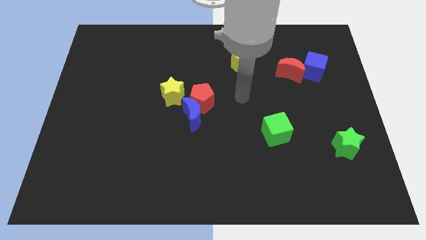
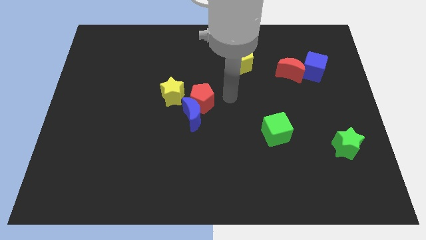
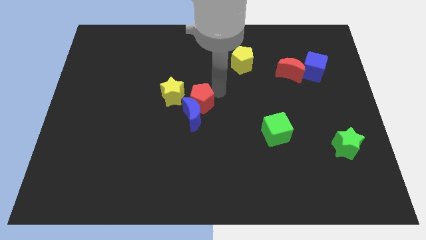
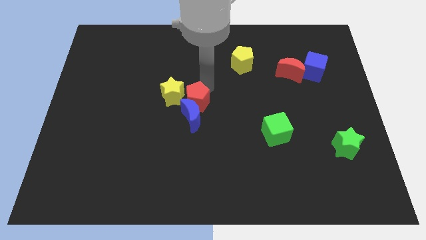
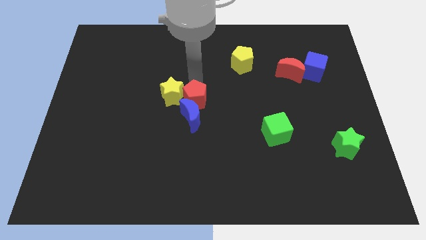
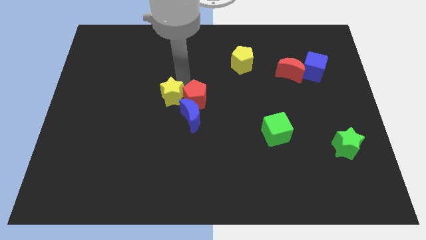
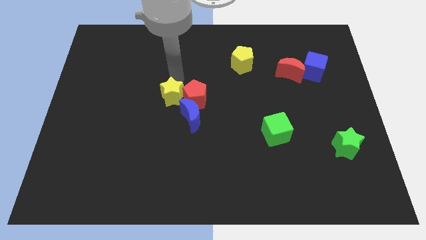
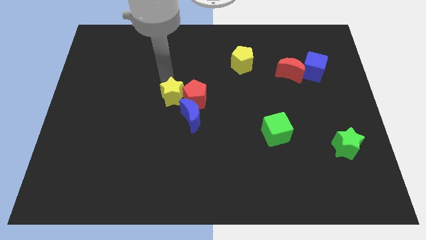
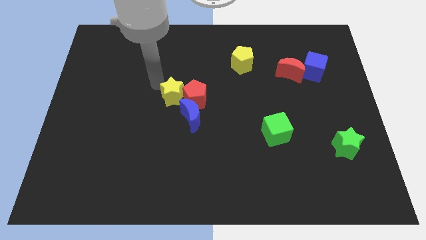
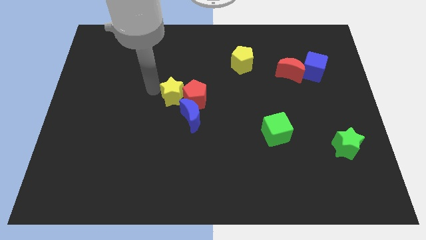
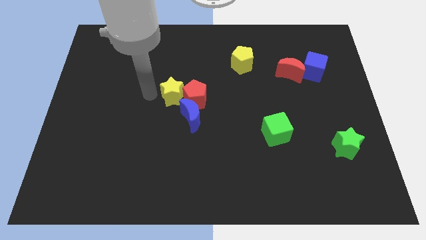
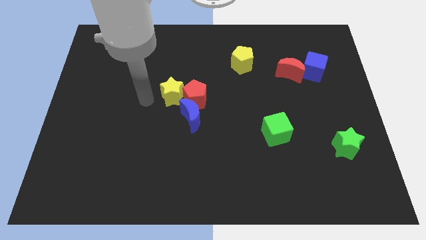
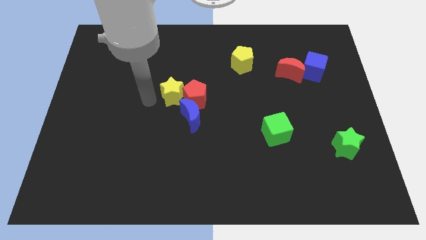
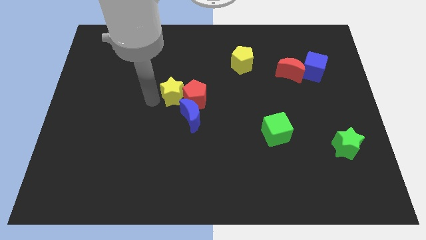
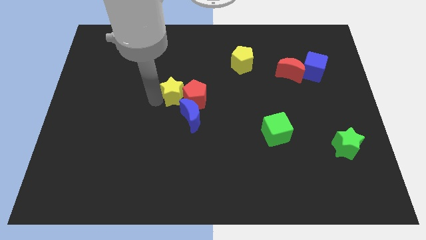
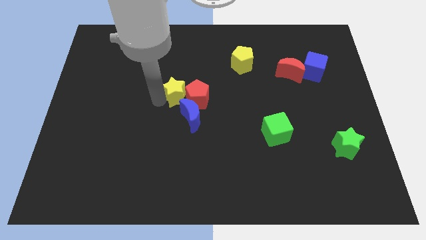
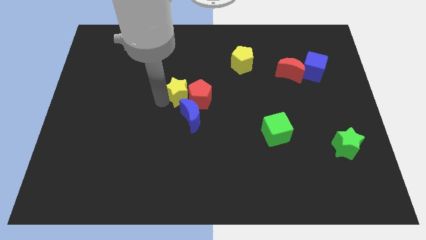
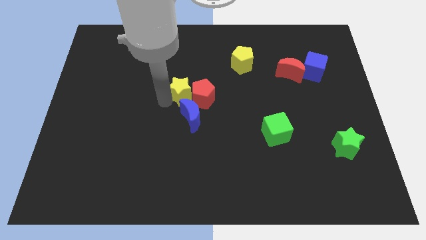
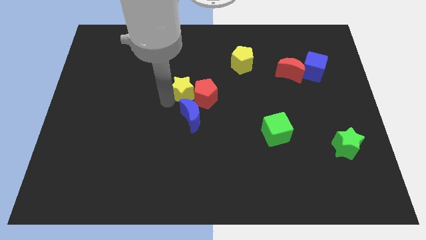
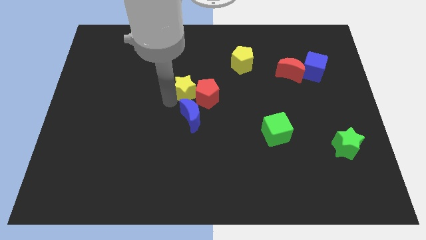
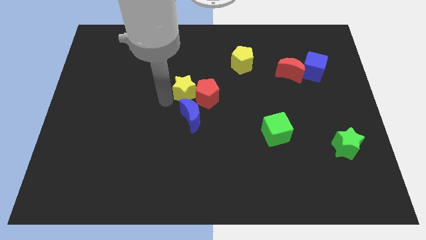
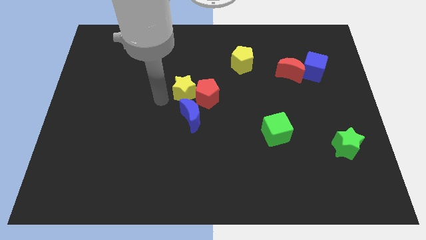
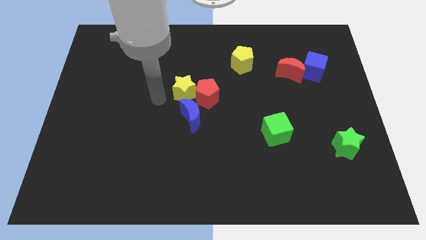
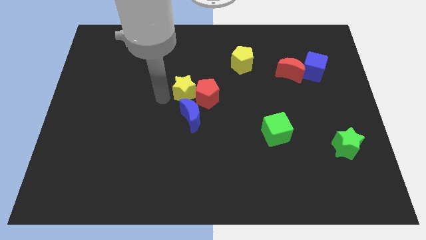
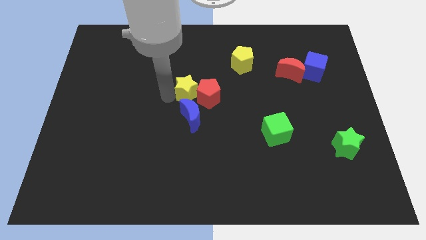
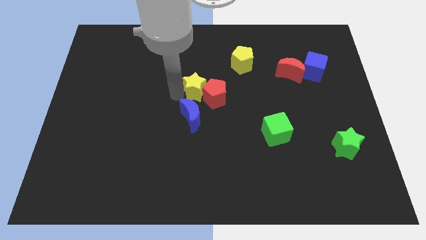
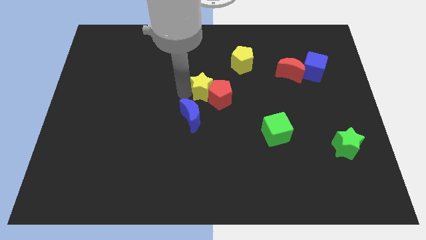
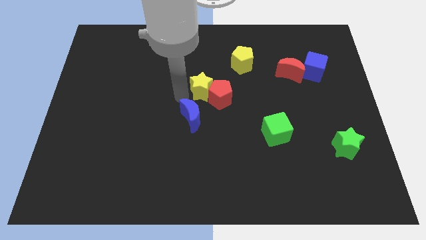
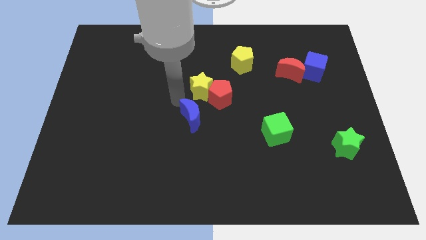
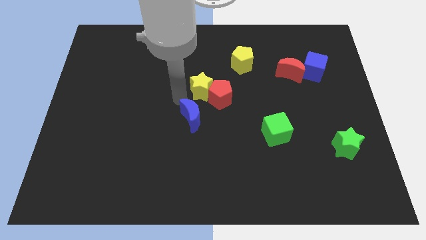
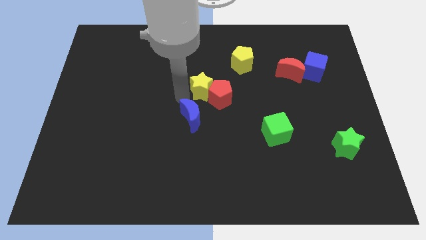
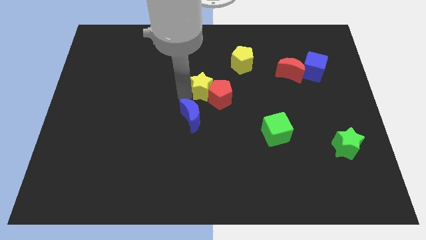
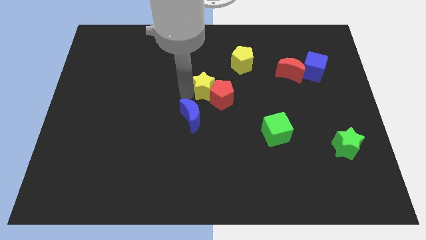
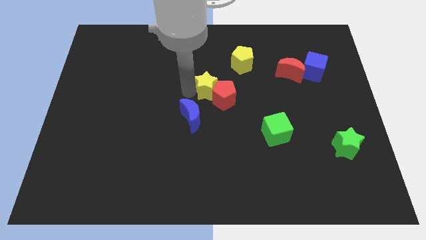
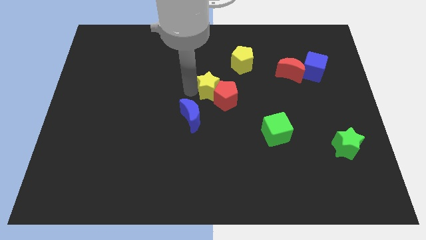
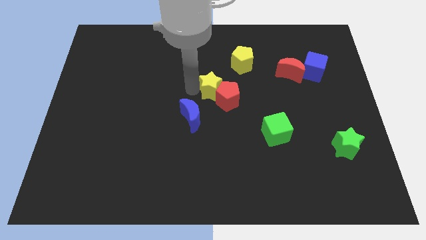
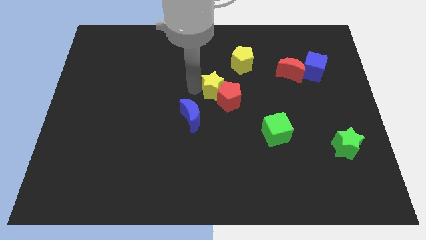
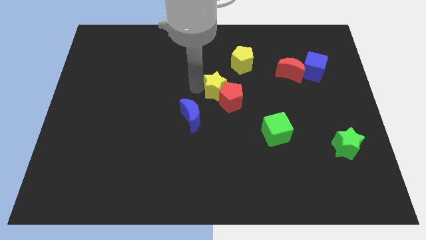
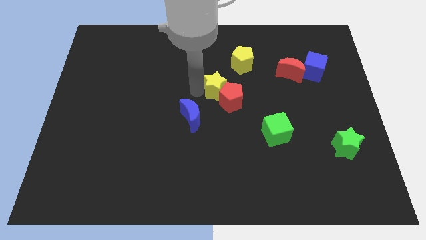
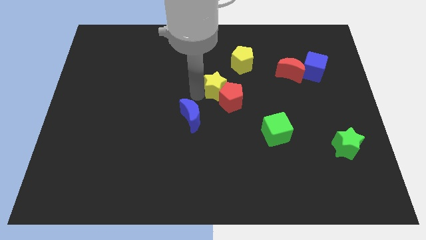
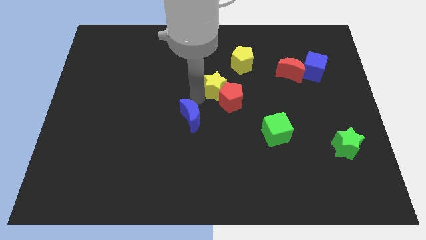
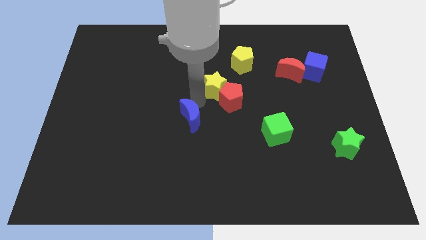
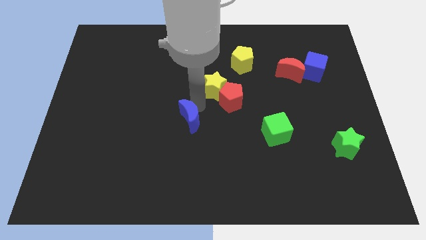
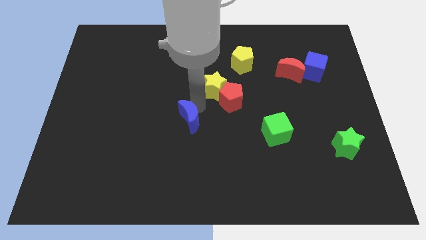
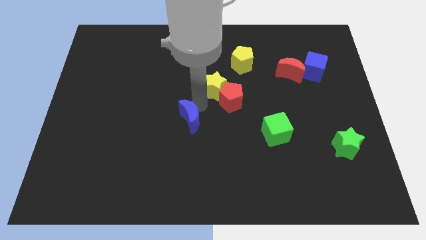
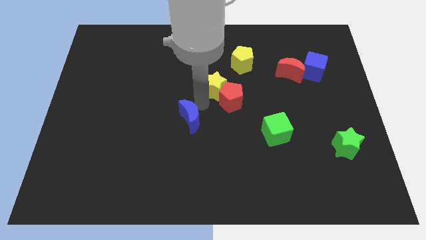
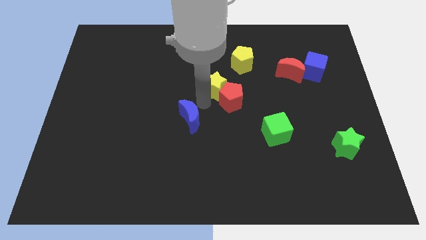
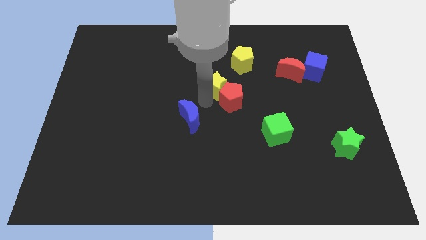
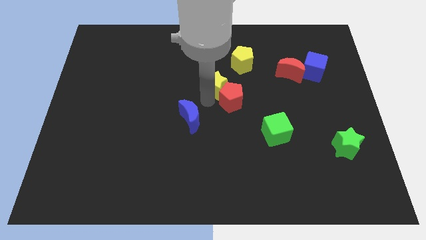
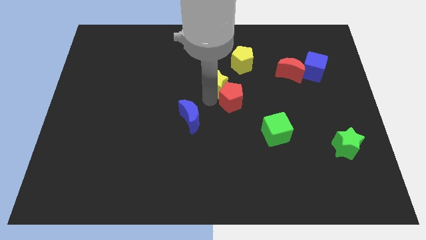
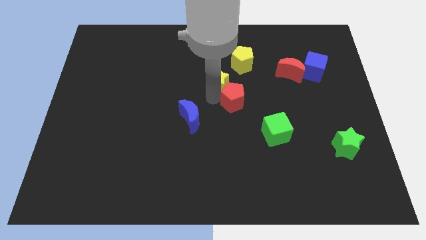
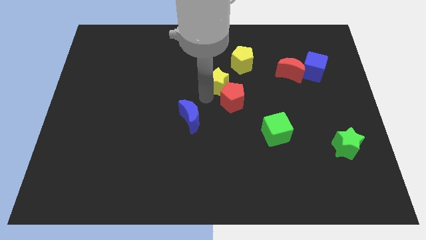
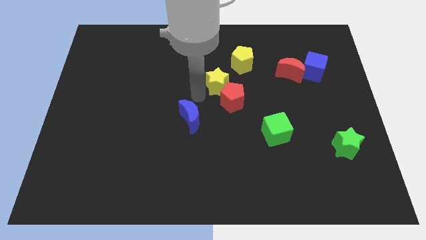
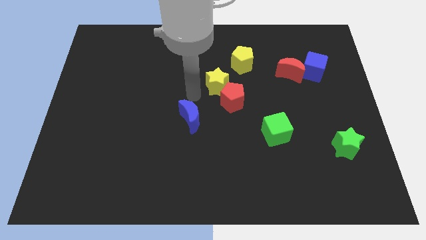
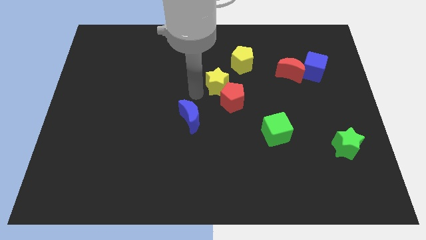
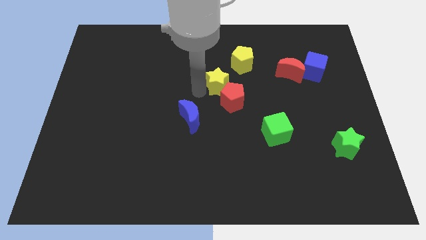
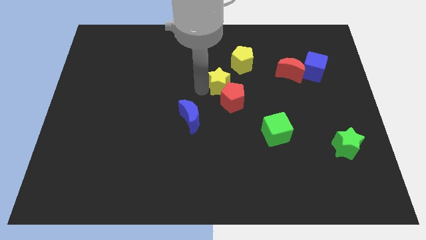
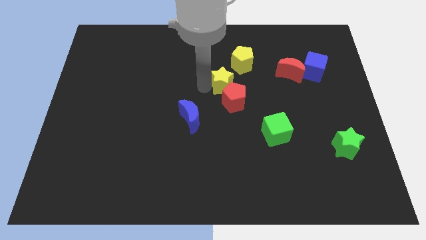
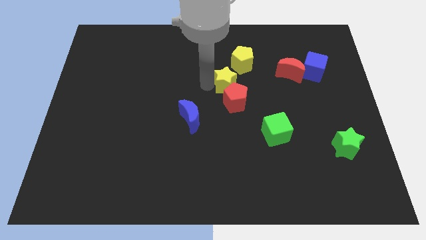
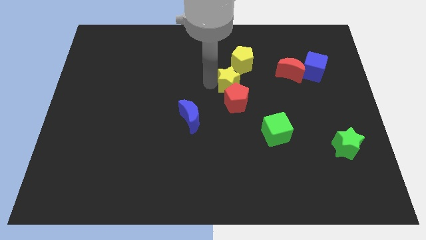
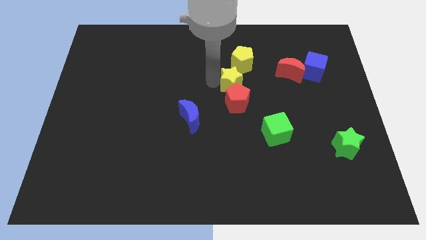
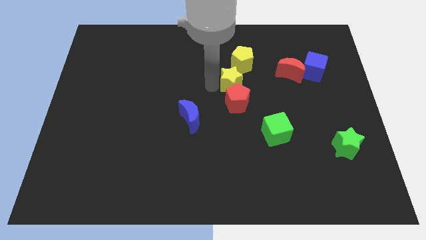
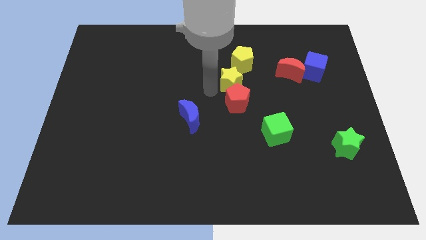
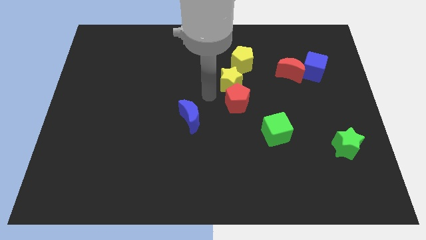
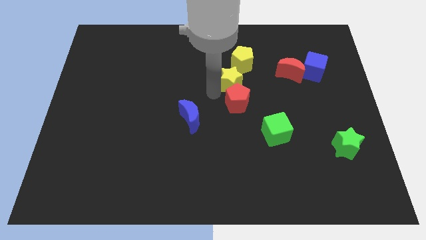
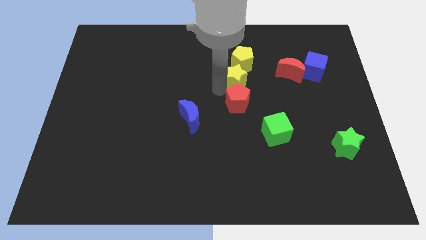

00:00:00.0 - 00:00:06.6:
put the yellow star to the left of the red moon

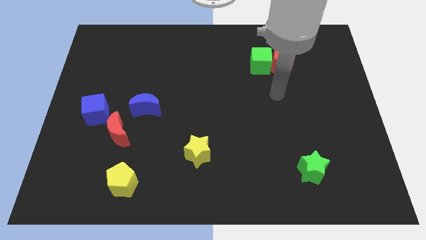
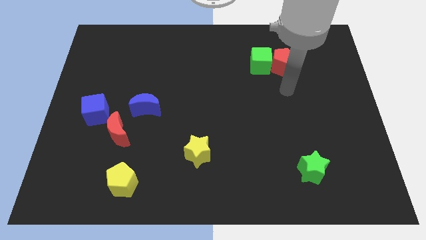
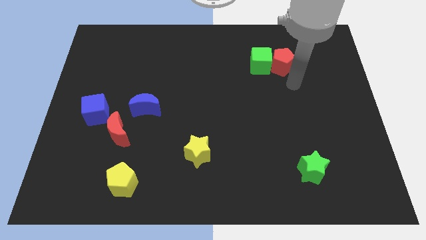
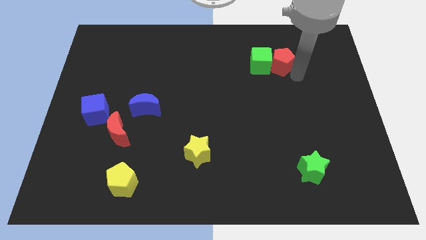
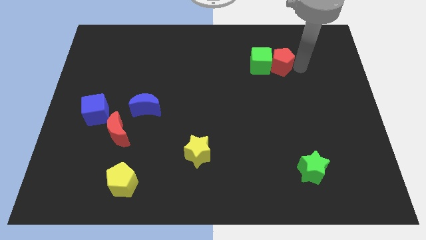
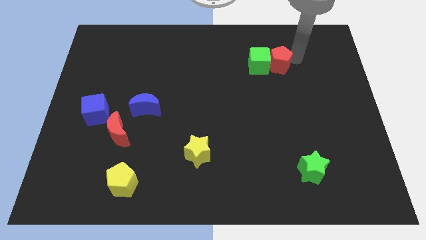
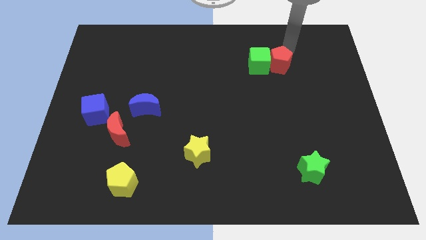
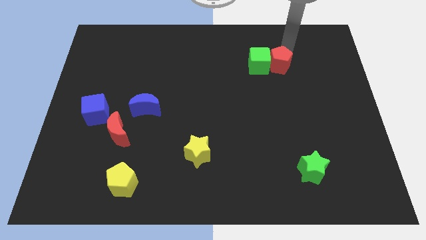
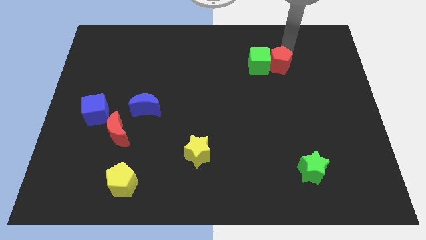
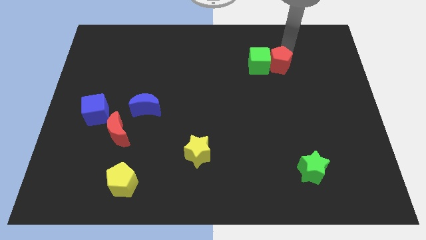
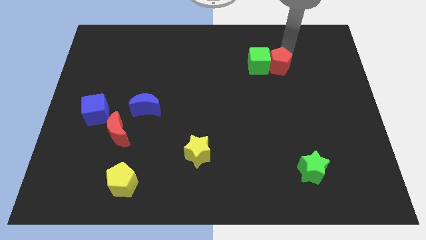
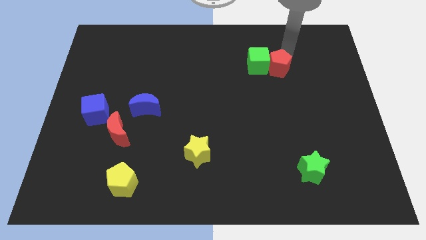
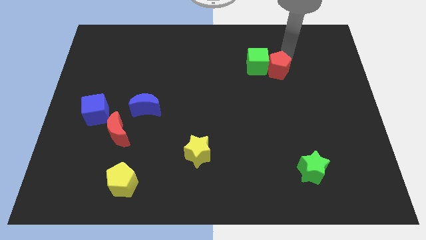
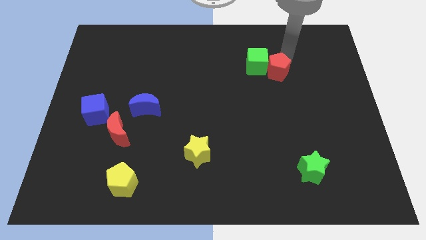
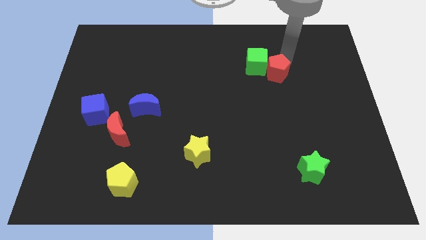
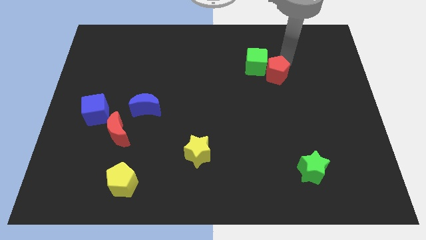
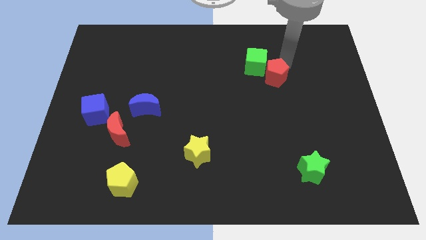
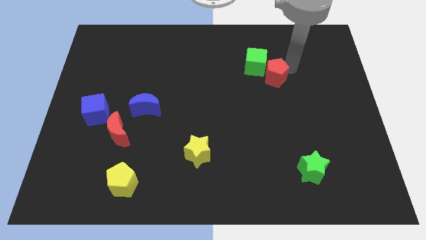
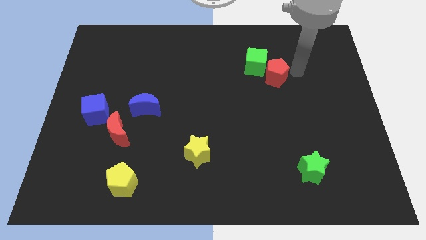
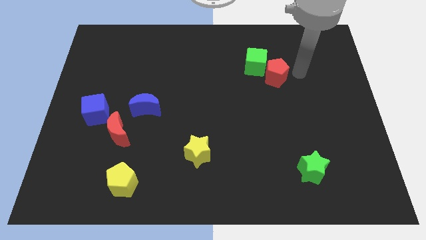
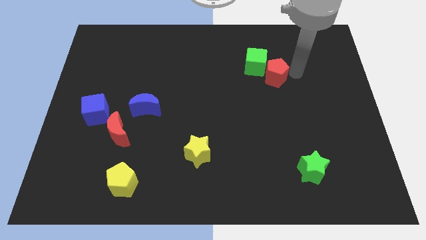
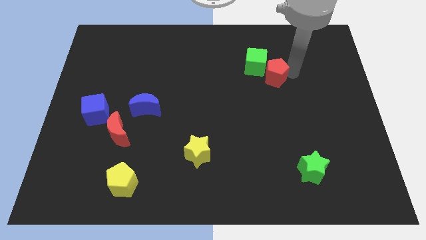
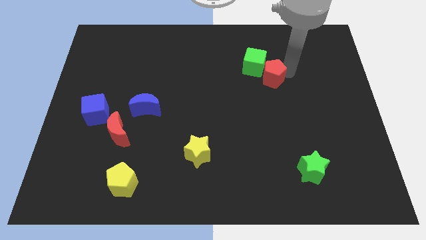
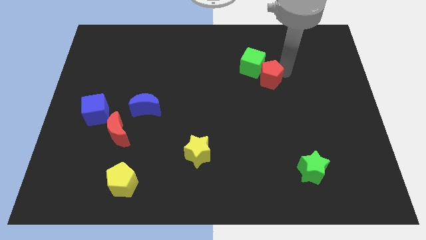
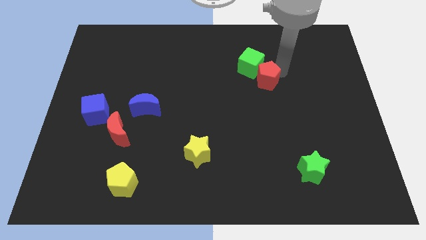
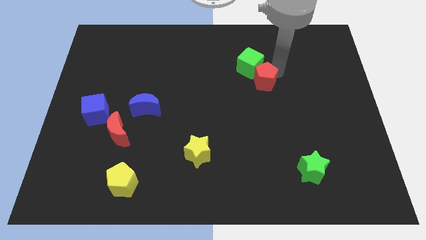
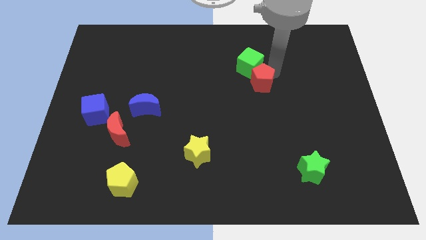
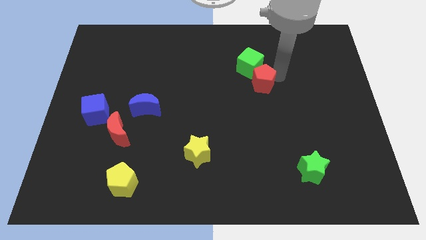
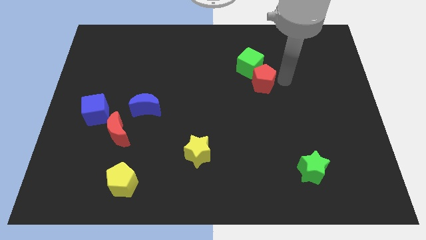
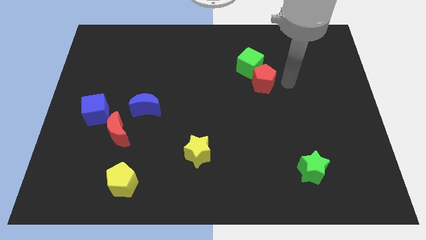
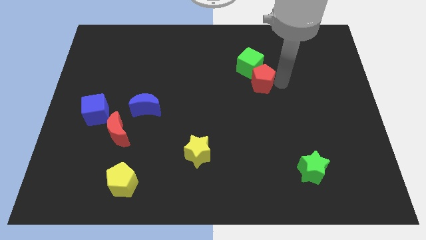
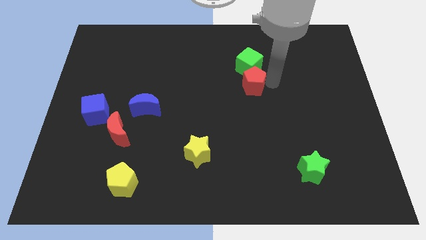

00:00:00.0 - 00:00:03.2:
slide the red pentagon diagonally down and to the left of the green cube
